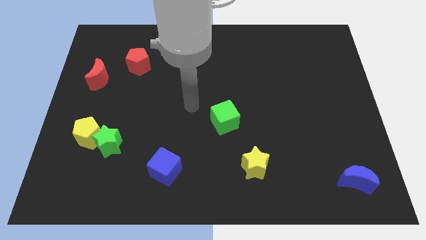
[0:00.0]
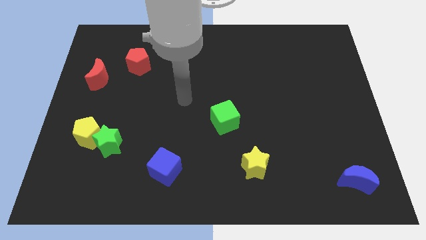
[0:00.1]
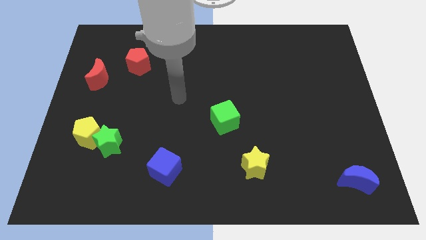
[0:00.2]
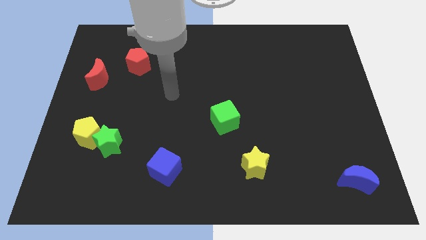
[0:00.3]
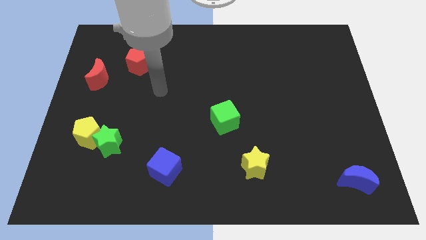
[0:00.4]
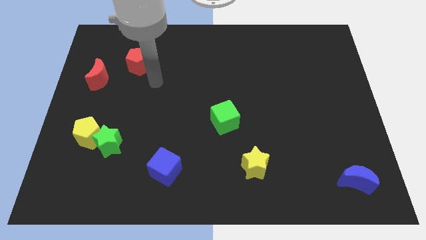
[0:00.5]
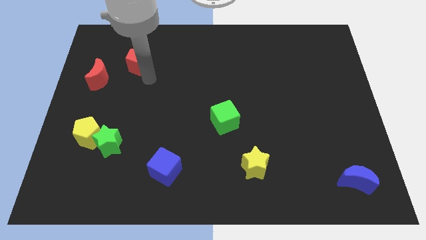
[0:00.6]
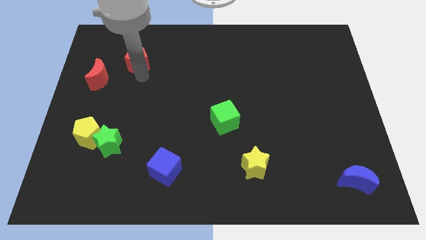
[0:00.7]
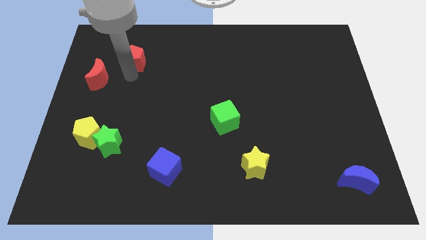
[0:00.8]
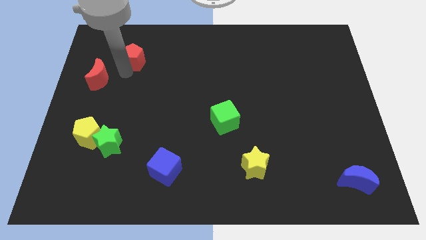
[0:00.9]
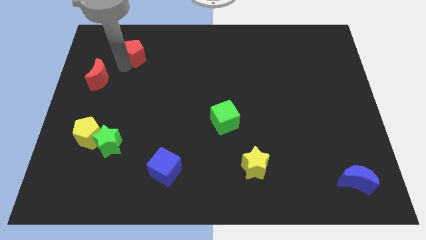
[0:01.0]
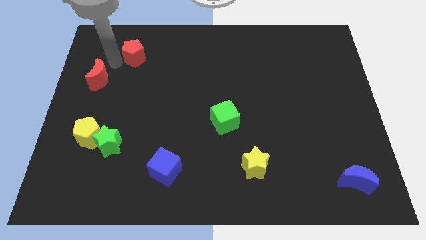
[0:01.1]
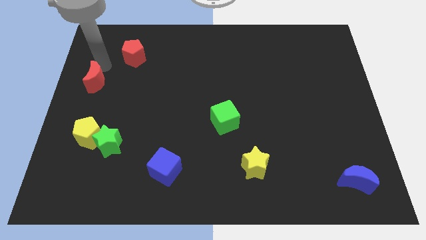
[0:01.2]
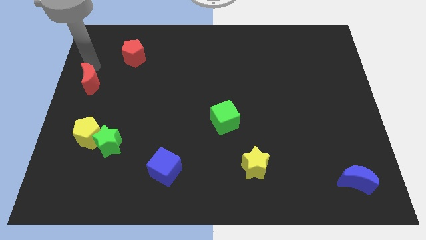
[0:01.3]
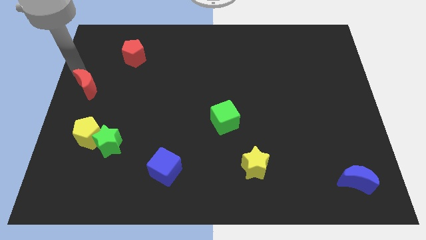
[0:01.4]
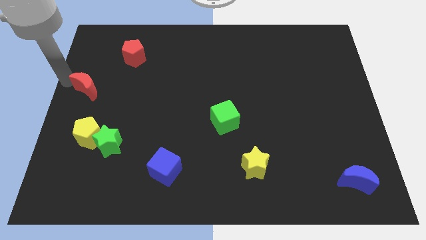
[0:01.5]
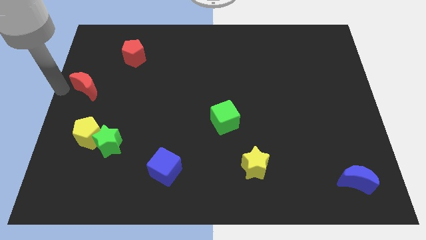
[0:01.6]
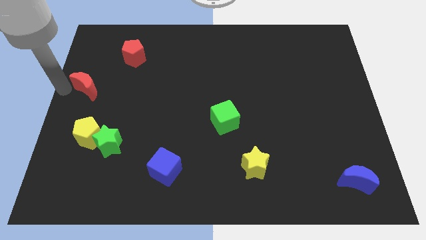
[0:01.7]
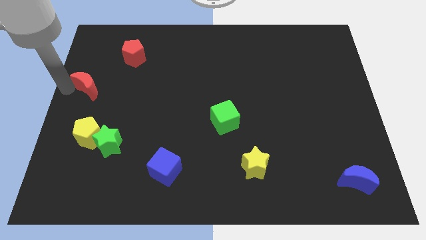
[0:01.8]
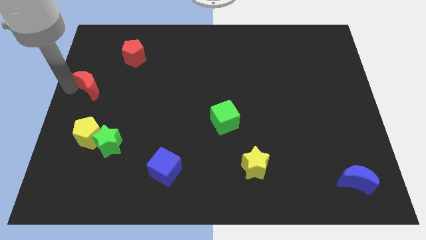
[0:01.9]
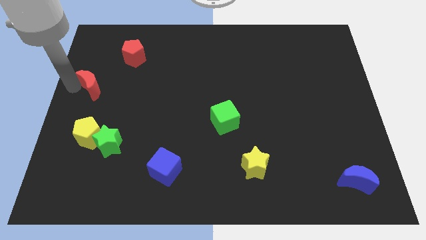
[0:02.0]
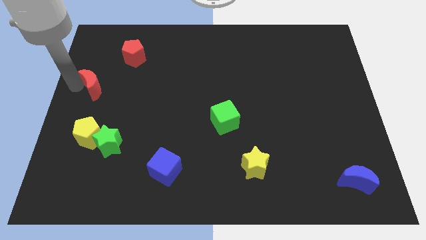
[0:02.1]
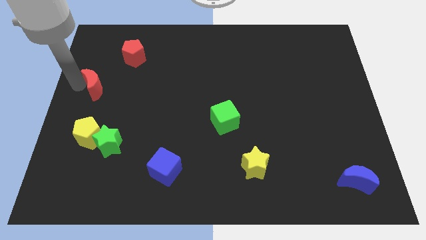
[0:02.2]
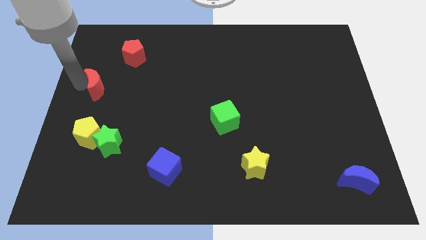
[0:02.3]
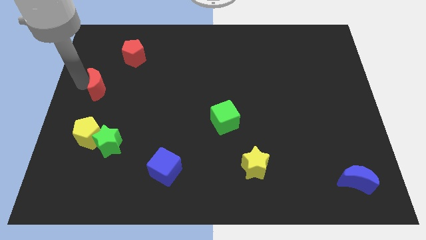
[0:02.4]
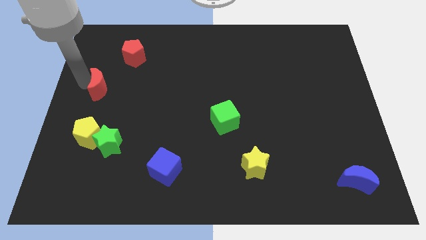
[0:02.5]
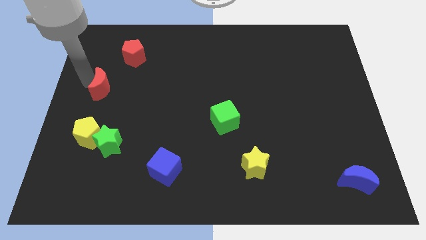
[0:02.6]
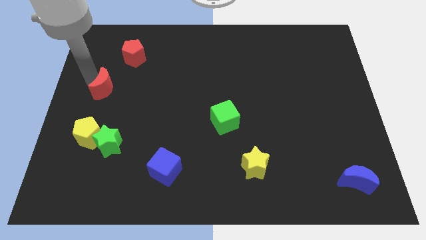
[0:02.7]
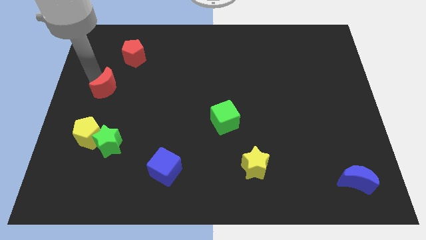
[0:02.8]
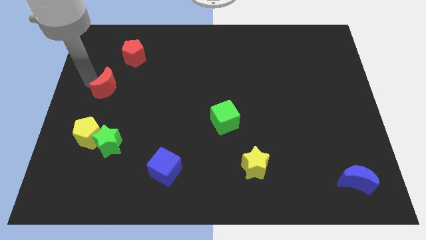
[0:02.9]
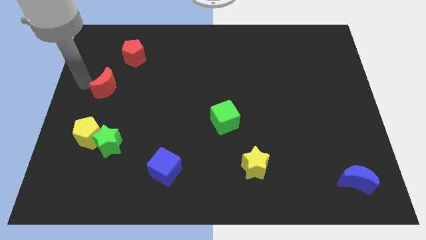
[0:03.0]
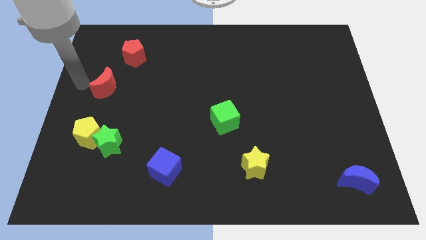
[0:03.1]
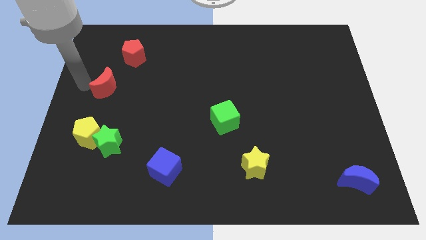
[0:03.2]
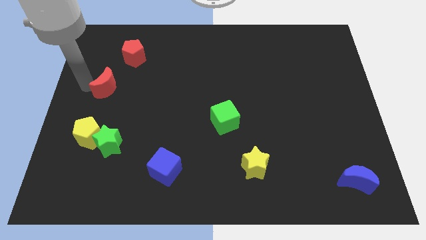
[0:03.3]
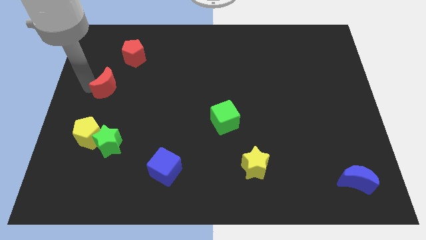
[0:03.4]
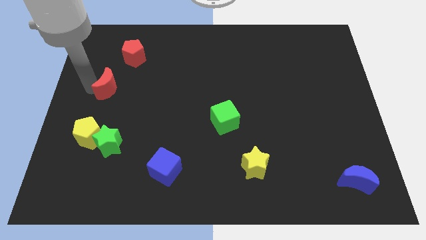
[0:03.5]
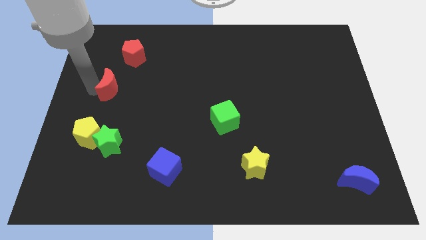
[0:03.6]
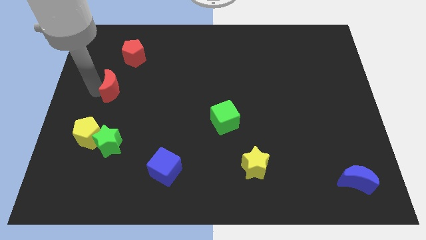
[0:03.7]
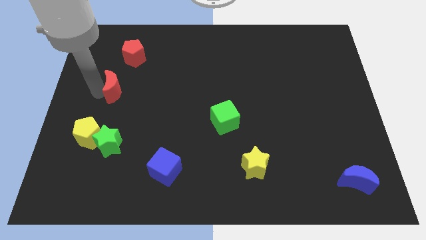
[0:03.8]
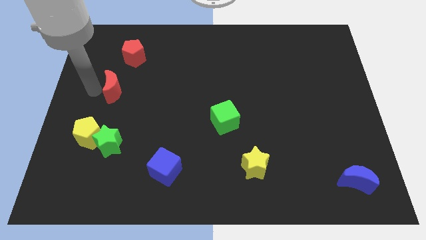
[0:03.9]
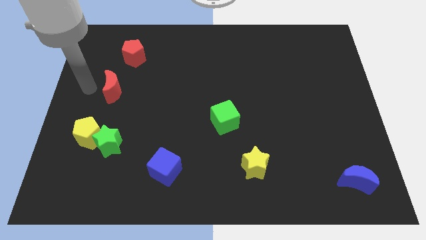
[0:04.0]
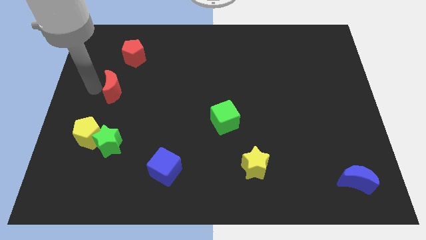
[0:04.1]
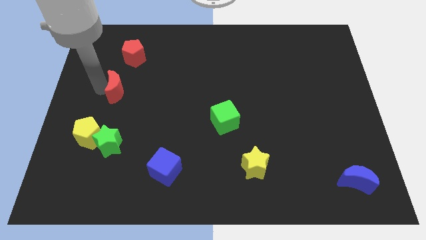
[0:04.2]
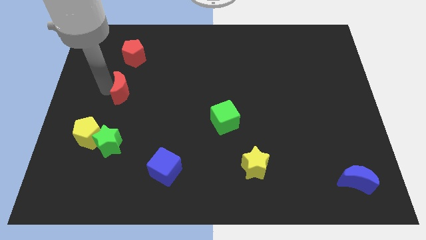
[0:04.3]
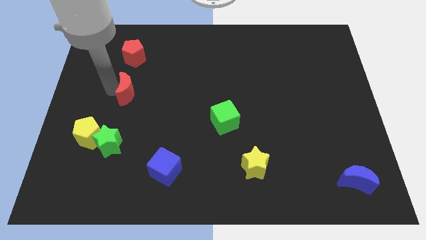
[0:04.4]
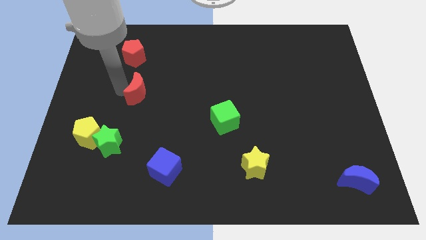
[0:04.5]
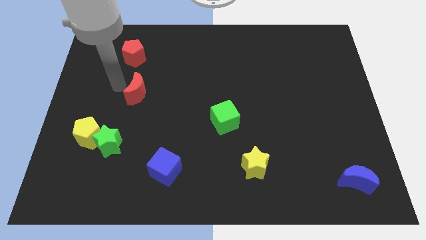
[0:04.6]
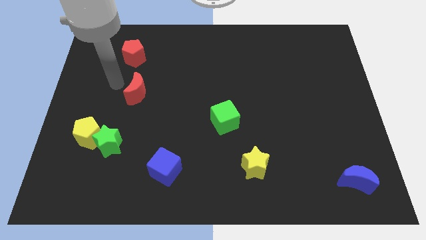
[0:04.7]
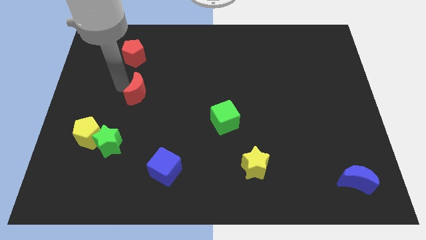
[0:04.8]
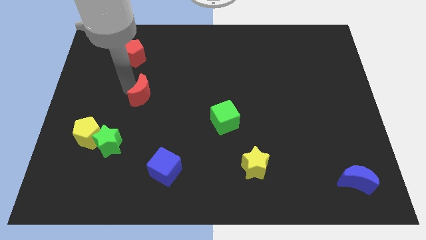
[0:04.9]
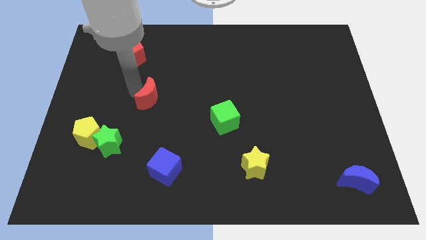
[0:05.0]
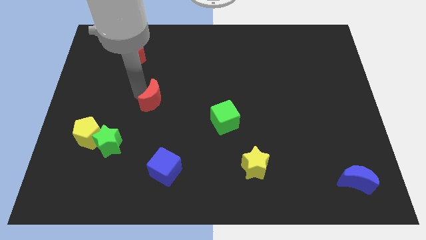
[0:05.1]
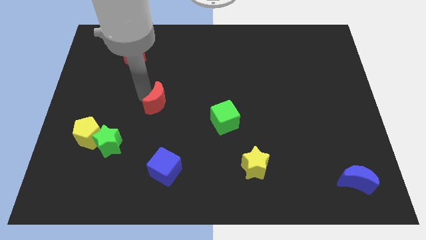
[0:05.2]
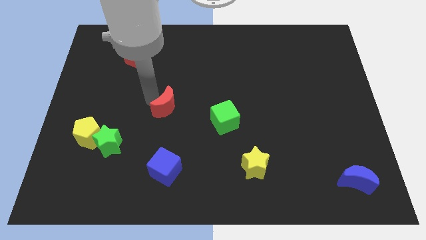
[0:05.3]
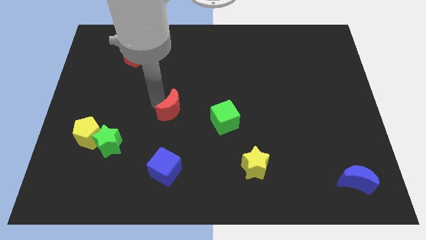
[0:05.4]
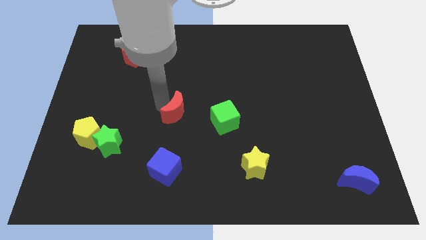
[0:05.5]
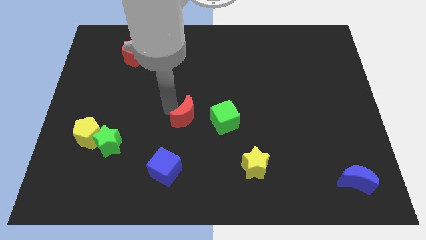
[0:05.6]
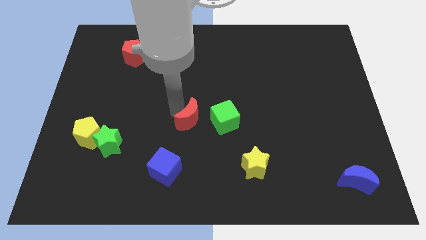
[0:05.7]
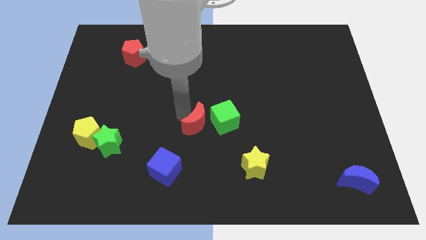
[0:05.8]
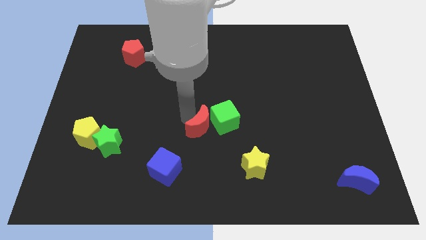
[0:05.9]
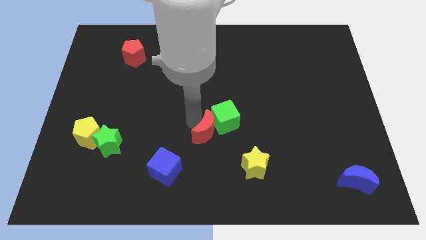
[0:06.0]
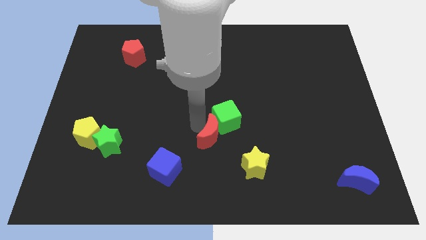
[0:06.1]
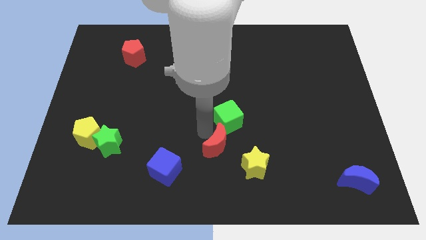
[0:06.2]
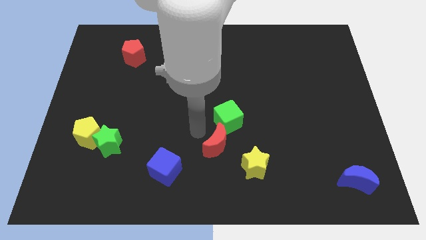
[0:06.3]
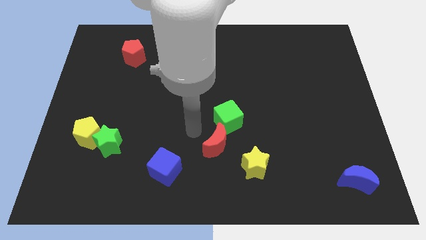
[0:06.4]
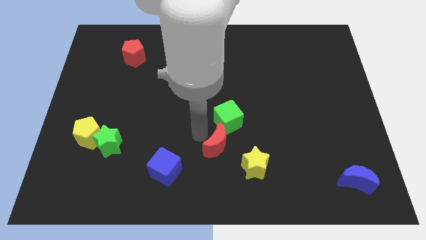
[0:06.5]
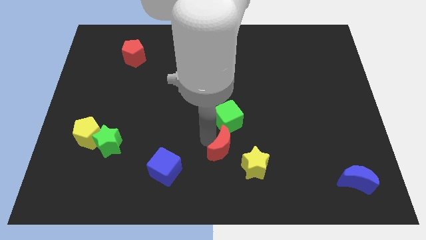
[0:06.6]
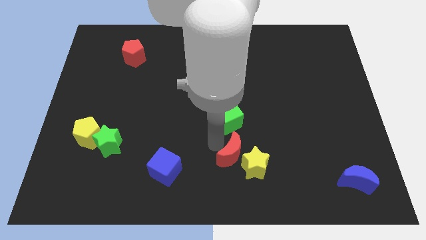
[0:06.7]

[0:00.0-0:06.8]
put the red moon towards the yellow star

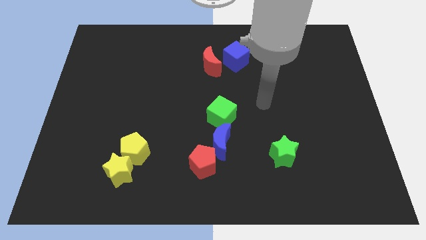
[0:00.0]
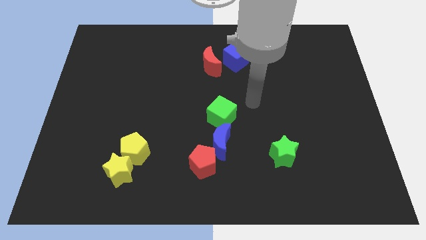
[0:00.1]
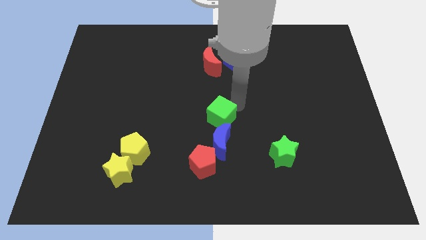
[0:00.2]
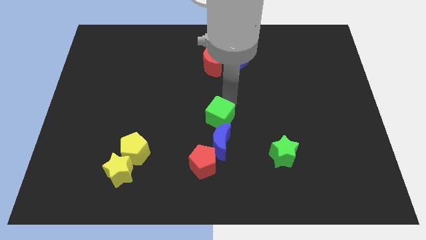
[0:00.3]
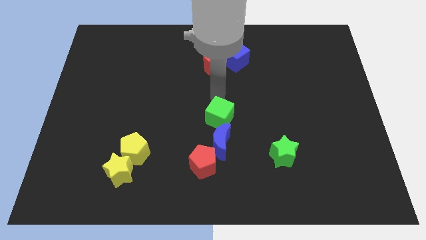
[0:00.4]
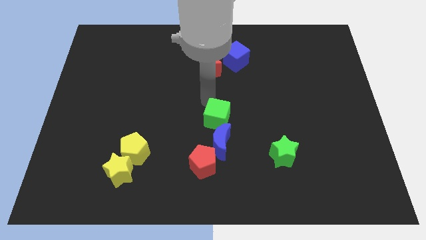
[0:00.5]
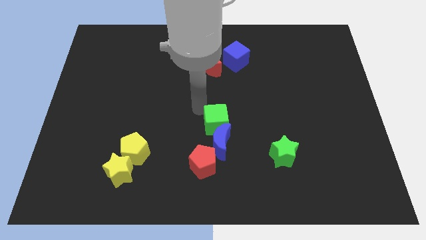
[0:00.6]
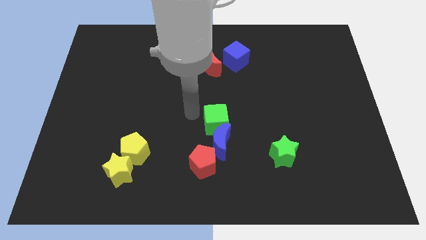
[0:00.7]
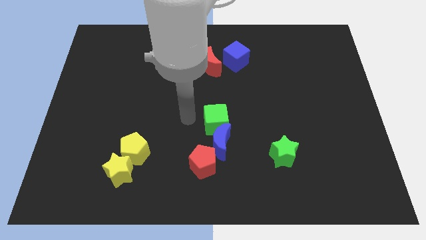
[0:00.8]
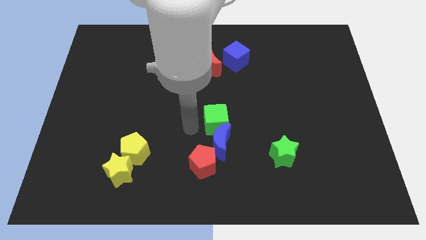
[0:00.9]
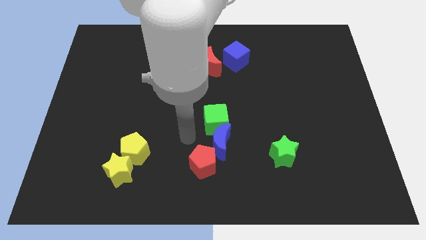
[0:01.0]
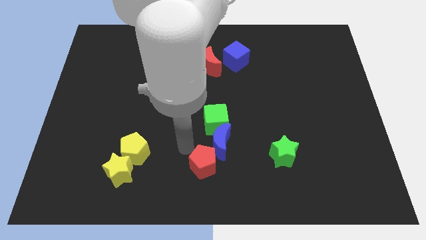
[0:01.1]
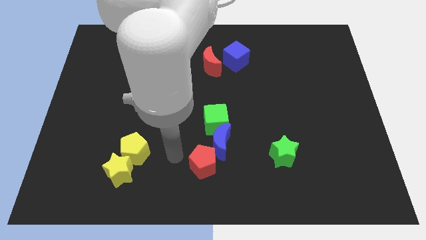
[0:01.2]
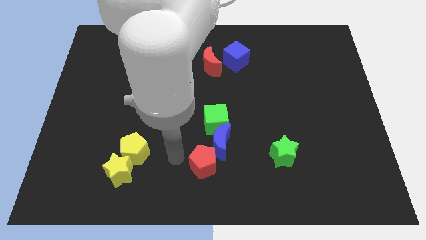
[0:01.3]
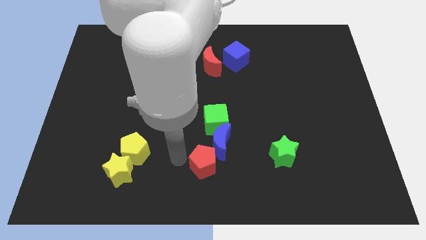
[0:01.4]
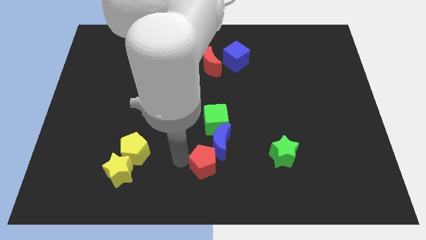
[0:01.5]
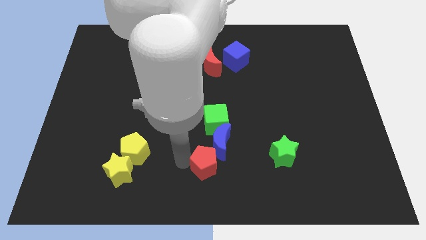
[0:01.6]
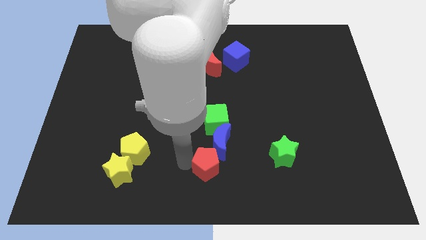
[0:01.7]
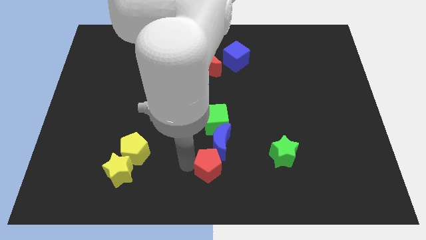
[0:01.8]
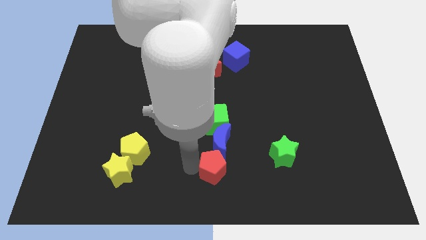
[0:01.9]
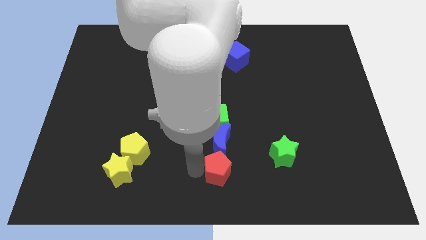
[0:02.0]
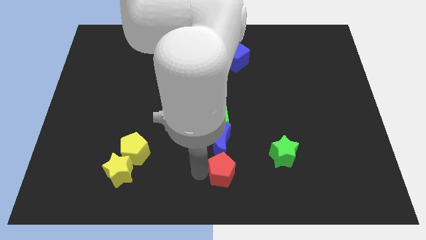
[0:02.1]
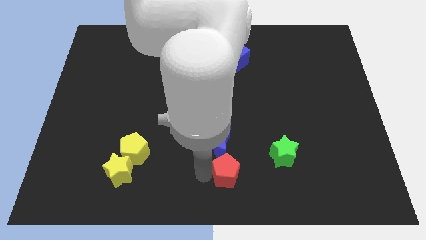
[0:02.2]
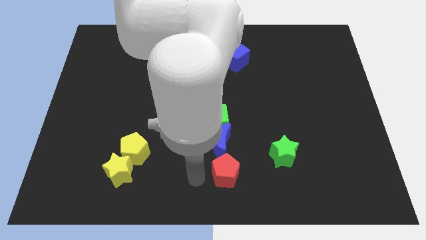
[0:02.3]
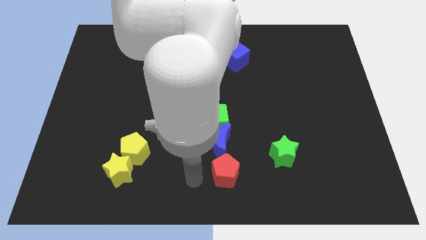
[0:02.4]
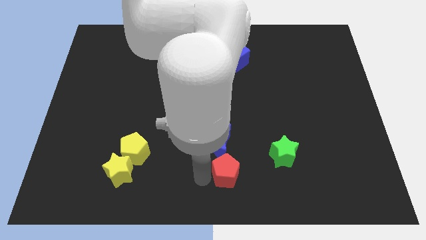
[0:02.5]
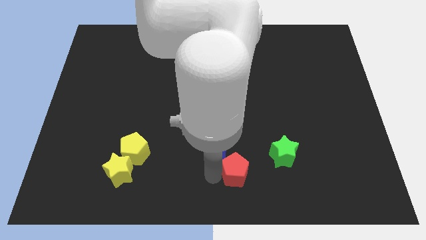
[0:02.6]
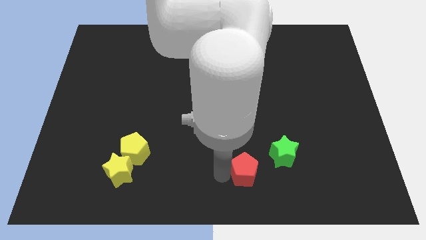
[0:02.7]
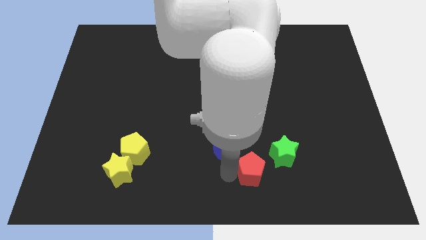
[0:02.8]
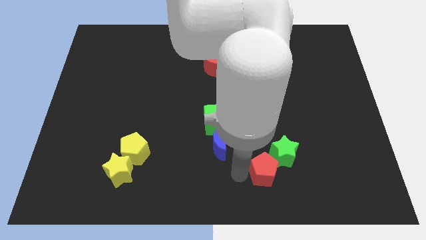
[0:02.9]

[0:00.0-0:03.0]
slide the red pentagon close to the green star
